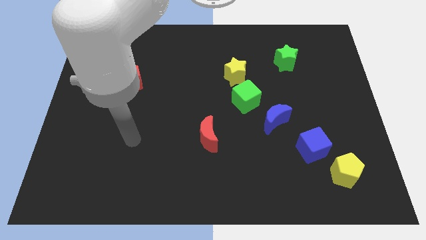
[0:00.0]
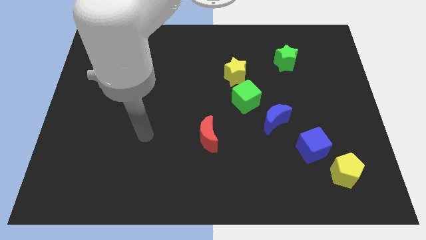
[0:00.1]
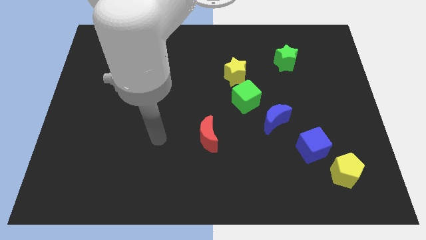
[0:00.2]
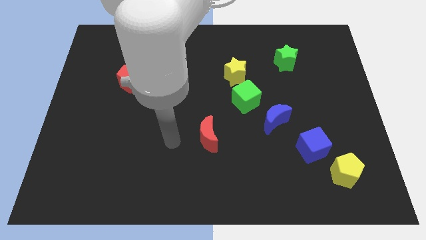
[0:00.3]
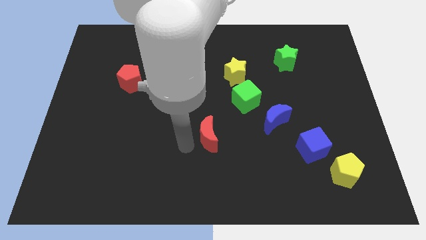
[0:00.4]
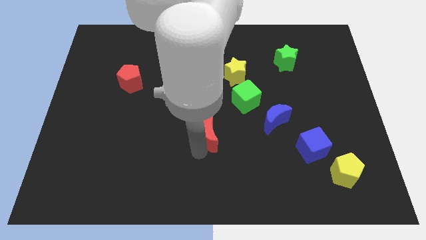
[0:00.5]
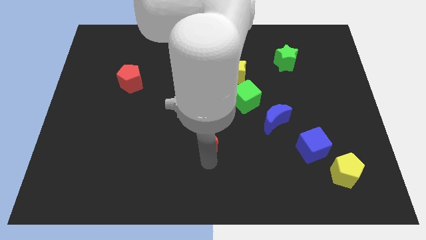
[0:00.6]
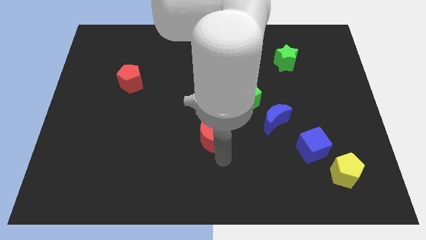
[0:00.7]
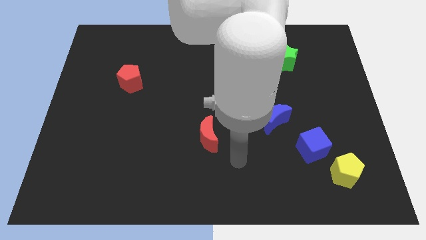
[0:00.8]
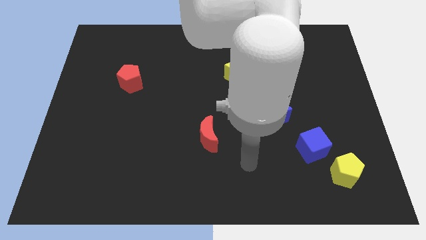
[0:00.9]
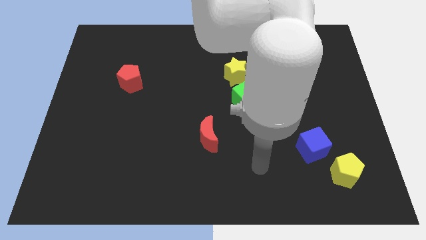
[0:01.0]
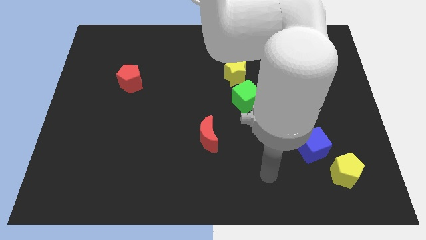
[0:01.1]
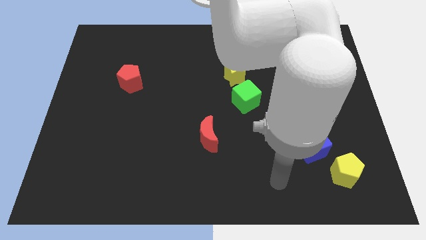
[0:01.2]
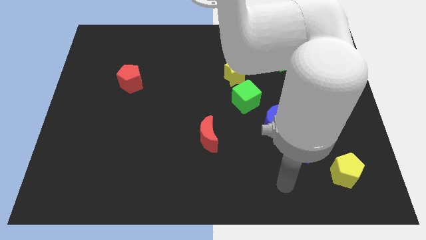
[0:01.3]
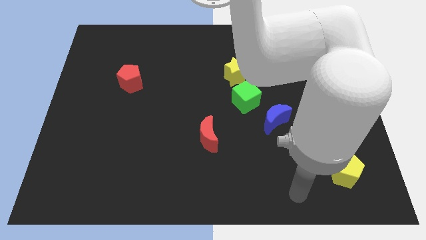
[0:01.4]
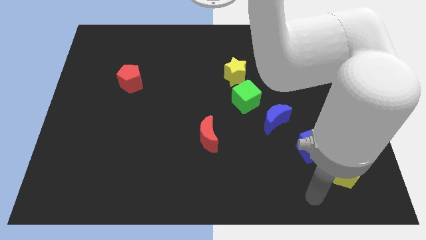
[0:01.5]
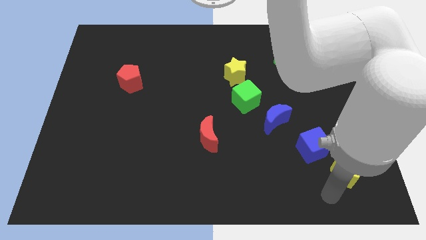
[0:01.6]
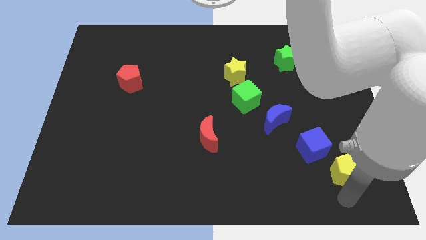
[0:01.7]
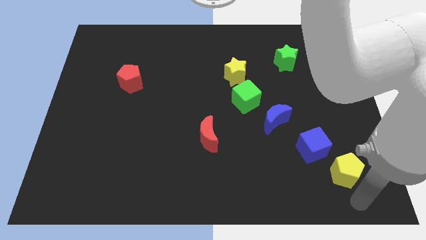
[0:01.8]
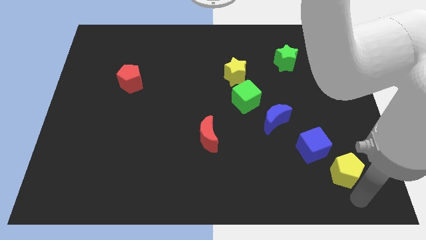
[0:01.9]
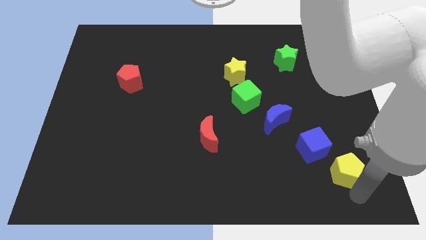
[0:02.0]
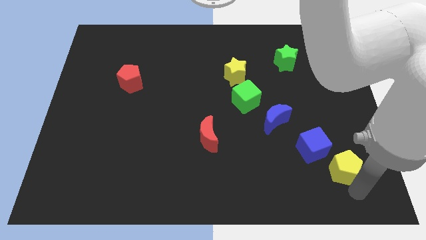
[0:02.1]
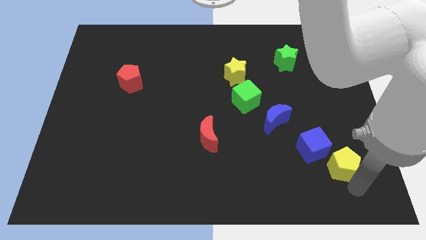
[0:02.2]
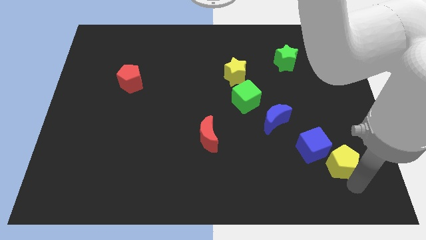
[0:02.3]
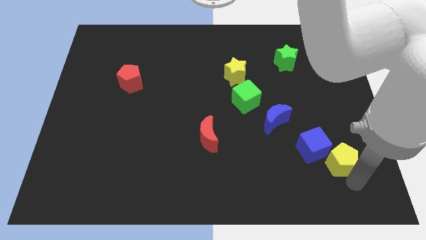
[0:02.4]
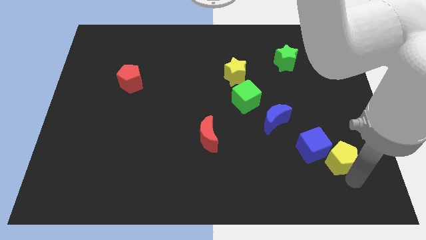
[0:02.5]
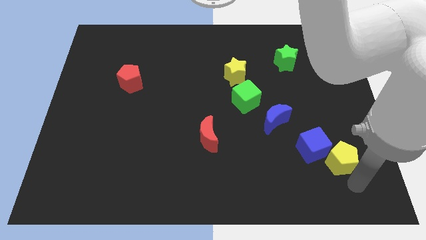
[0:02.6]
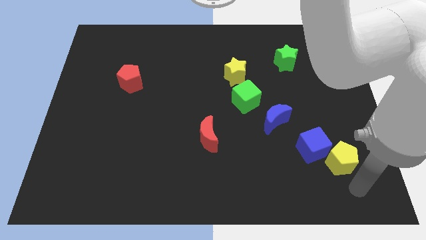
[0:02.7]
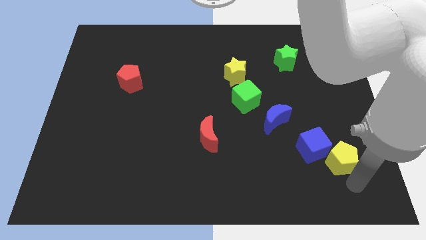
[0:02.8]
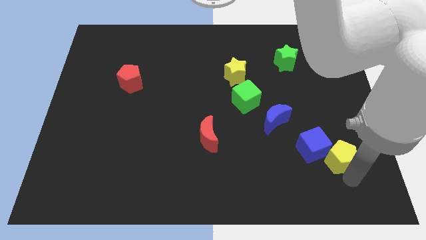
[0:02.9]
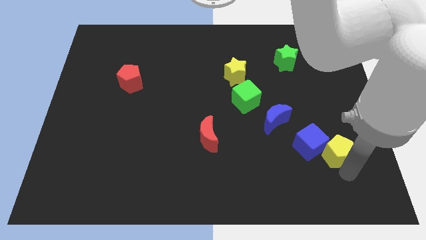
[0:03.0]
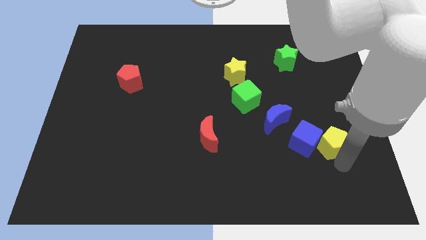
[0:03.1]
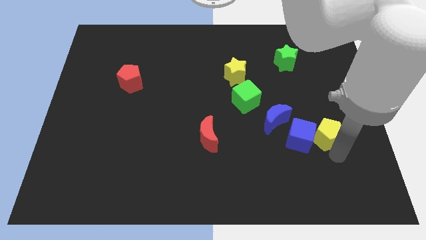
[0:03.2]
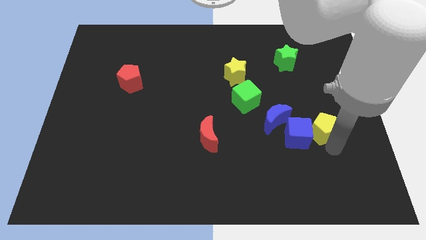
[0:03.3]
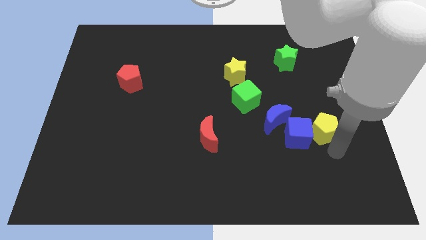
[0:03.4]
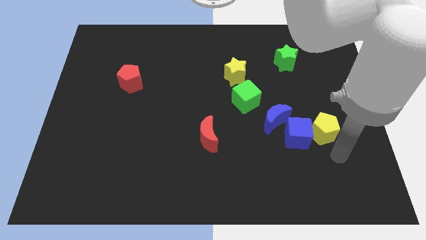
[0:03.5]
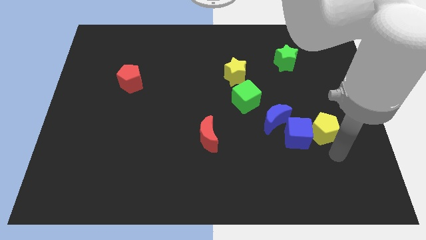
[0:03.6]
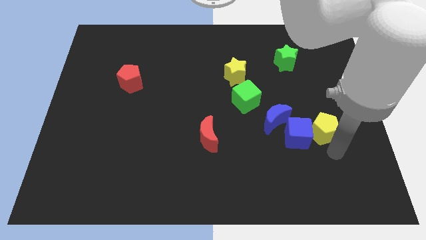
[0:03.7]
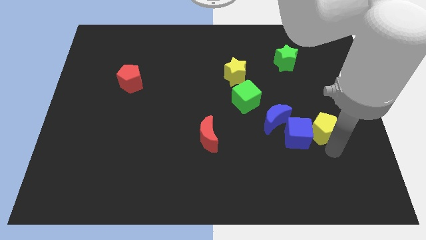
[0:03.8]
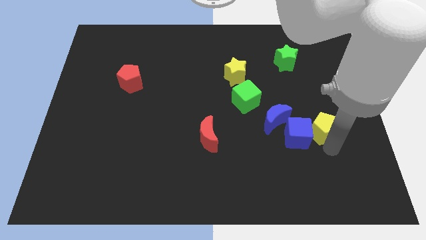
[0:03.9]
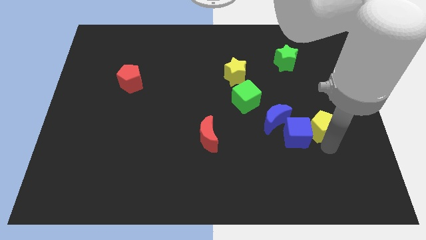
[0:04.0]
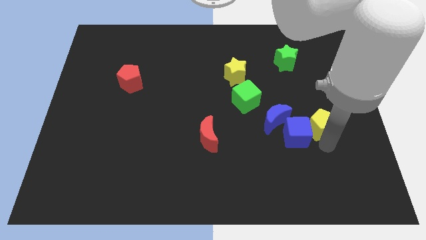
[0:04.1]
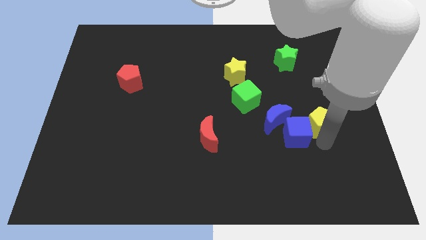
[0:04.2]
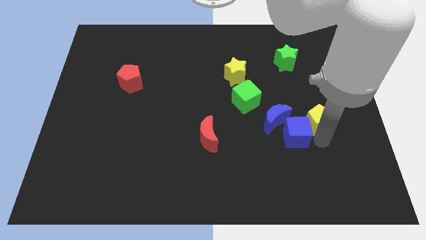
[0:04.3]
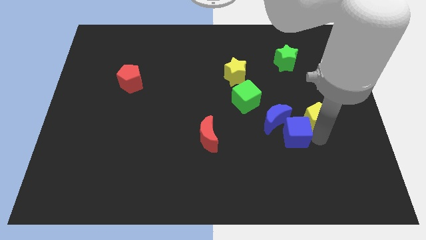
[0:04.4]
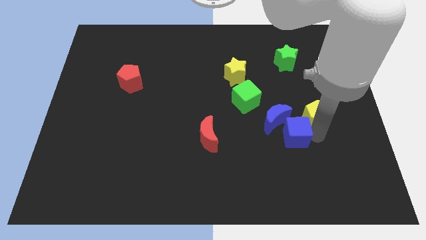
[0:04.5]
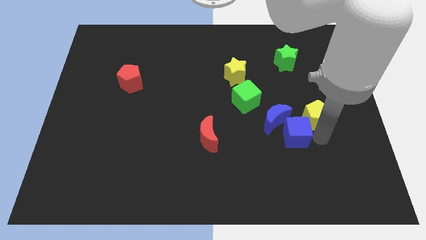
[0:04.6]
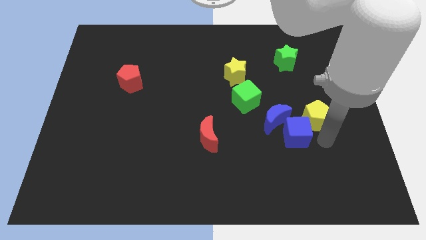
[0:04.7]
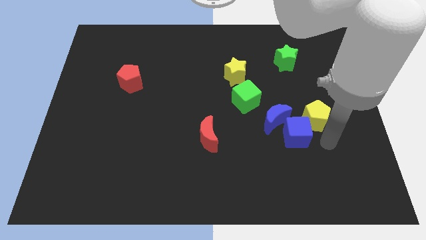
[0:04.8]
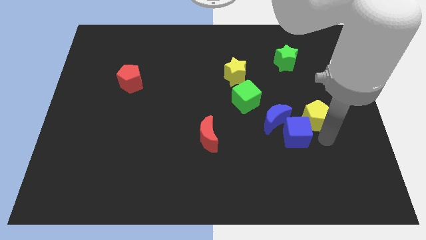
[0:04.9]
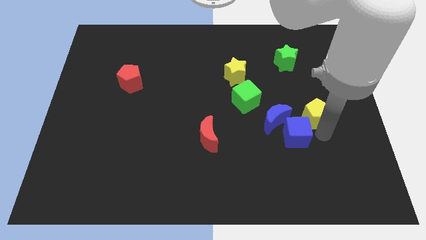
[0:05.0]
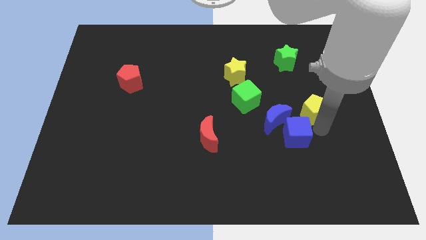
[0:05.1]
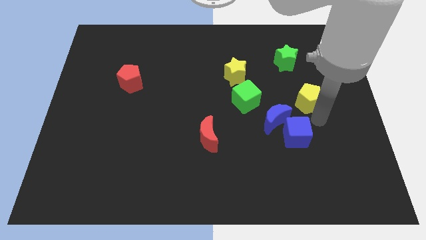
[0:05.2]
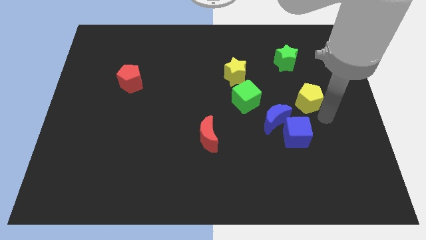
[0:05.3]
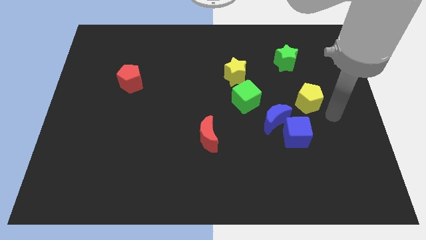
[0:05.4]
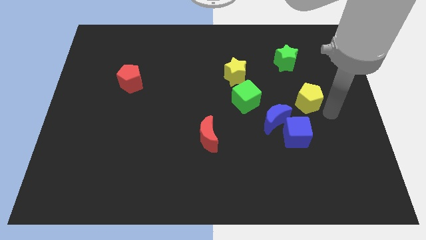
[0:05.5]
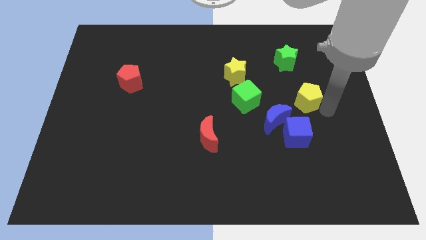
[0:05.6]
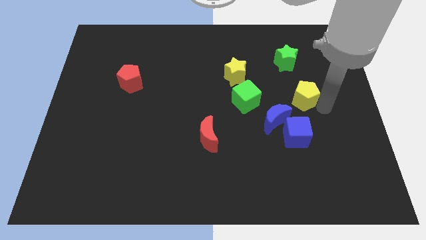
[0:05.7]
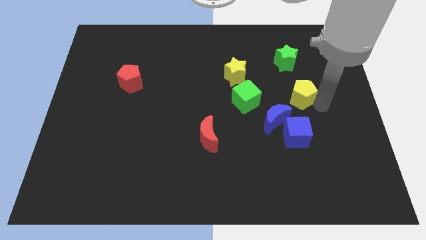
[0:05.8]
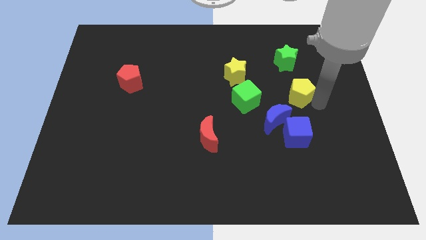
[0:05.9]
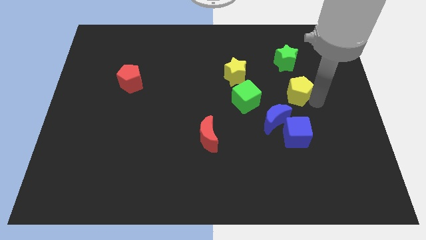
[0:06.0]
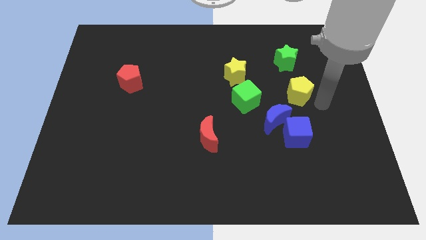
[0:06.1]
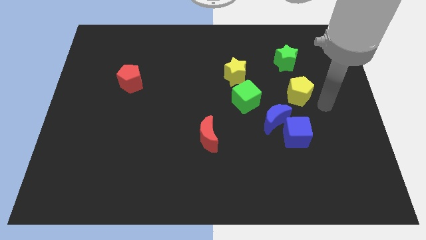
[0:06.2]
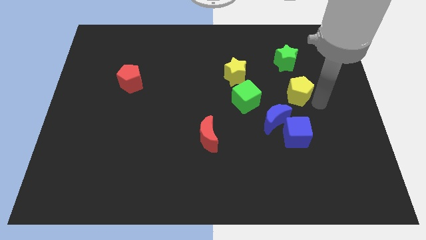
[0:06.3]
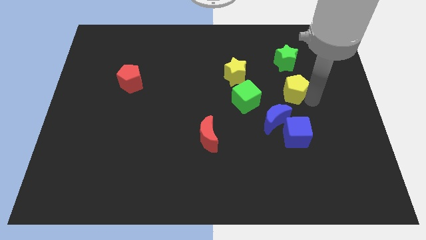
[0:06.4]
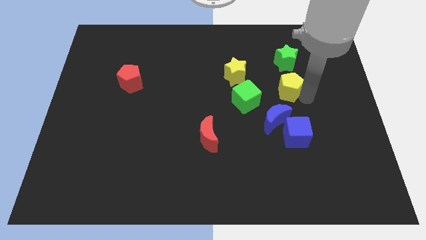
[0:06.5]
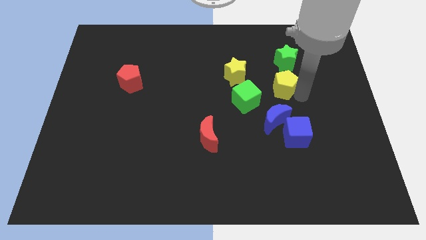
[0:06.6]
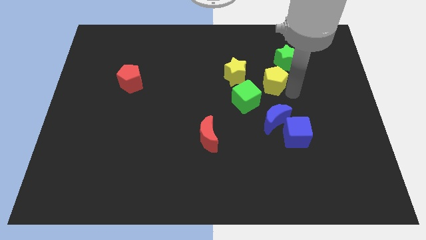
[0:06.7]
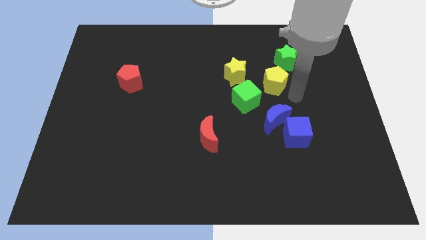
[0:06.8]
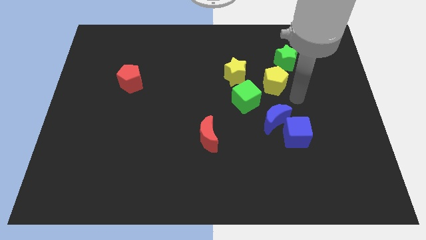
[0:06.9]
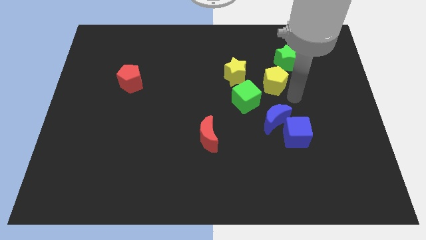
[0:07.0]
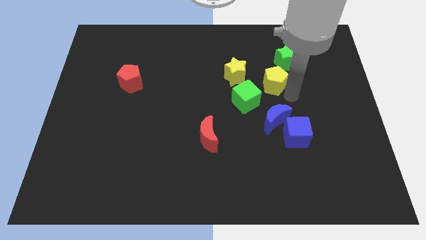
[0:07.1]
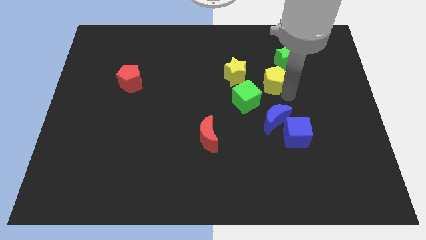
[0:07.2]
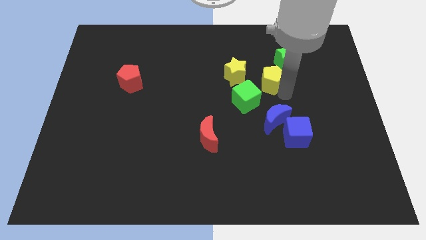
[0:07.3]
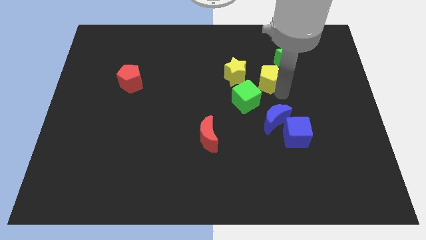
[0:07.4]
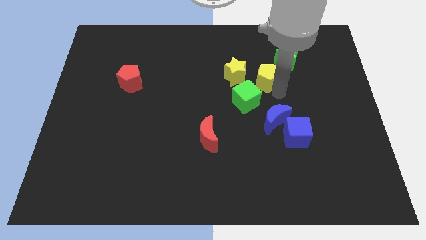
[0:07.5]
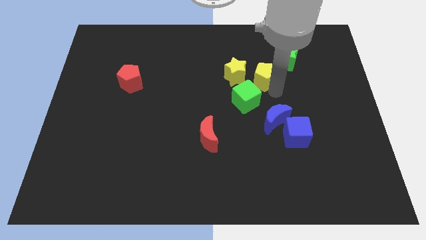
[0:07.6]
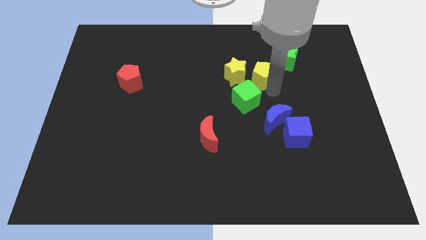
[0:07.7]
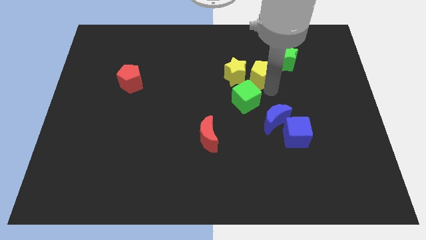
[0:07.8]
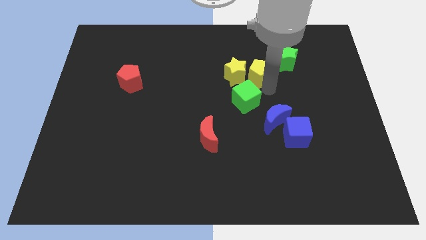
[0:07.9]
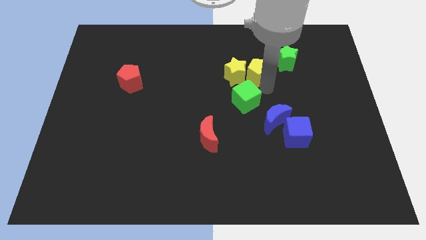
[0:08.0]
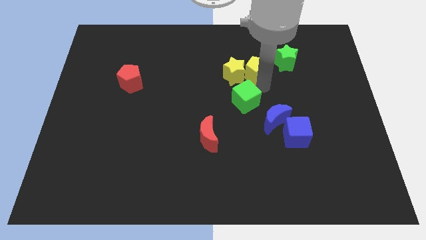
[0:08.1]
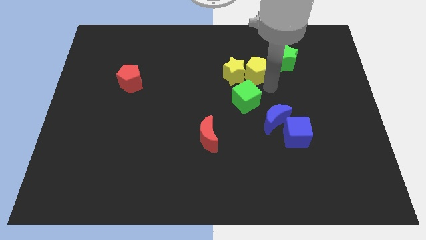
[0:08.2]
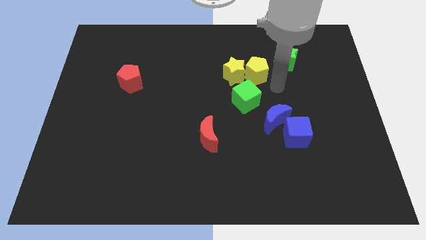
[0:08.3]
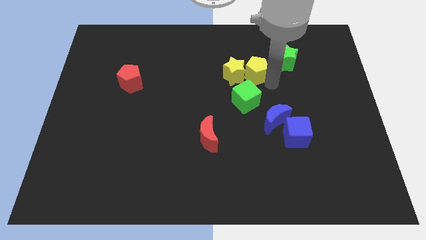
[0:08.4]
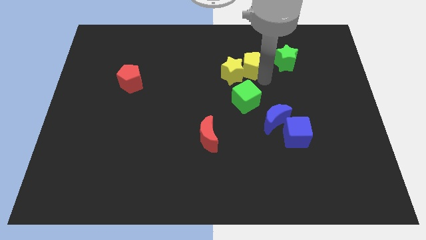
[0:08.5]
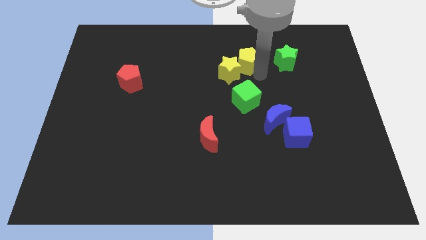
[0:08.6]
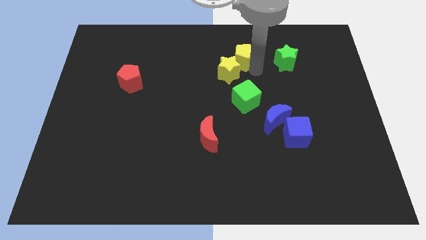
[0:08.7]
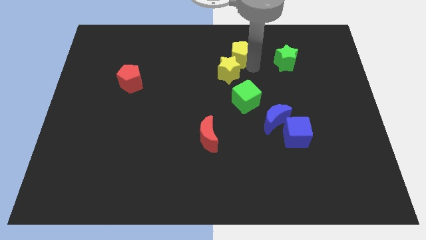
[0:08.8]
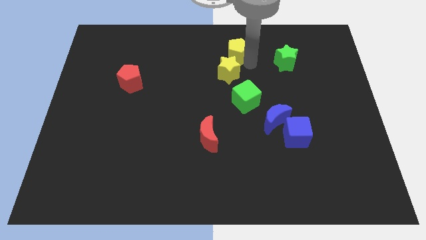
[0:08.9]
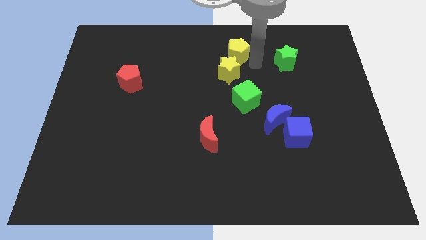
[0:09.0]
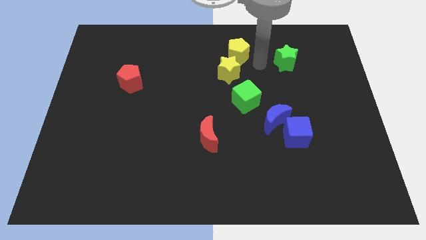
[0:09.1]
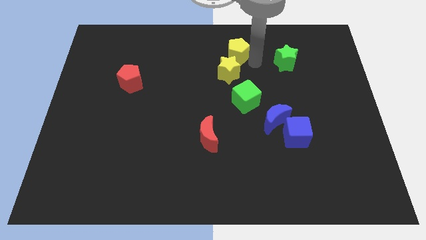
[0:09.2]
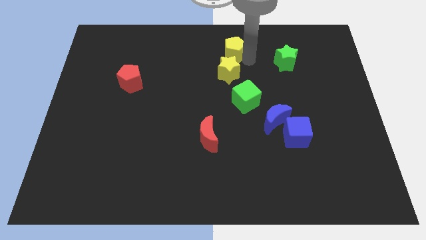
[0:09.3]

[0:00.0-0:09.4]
put the yellow pentagon to the top side
